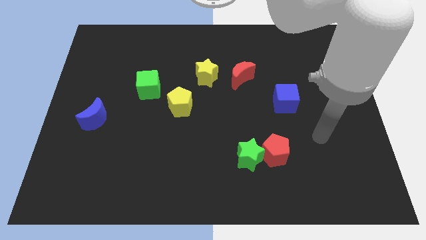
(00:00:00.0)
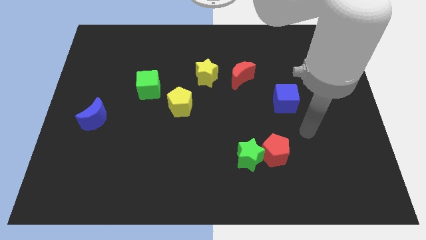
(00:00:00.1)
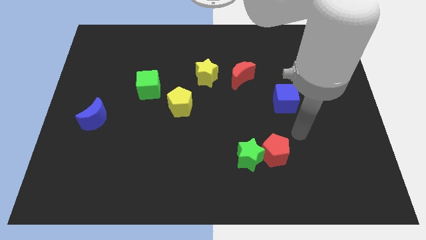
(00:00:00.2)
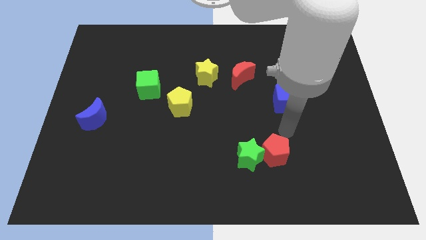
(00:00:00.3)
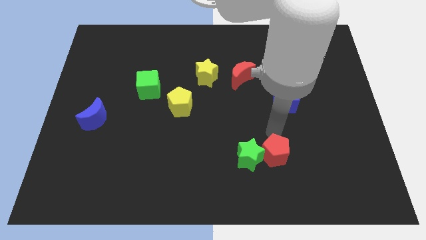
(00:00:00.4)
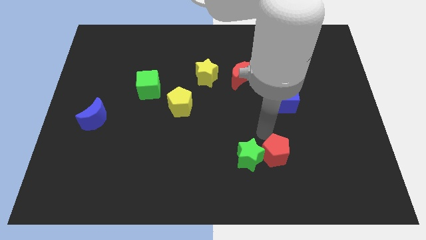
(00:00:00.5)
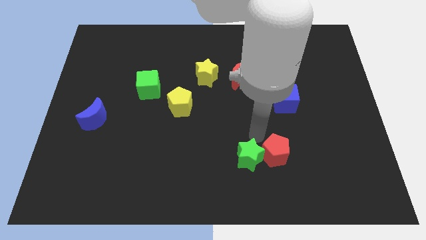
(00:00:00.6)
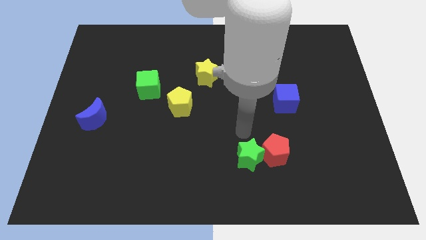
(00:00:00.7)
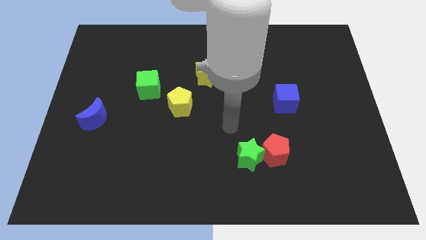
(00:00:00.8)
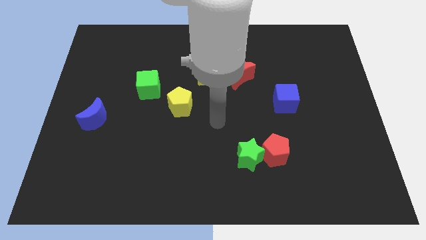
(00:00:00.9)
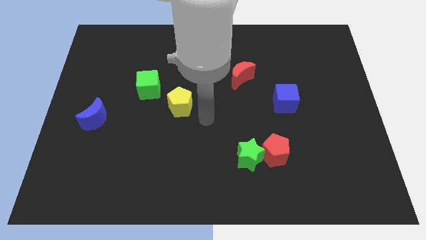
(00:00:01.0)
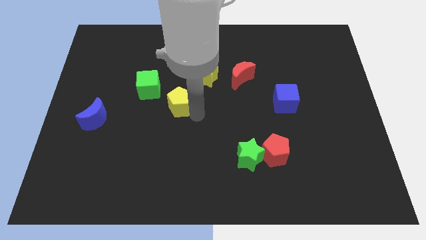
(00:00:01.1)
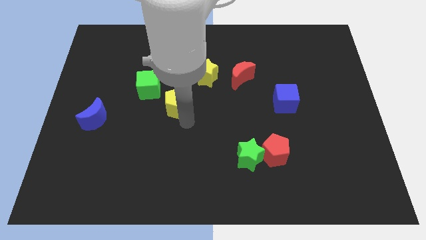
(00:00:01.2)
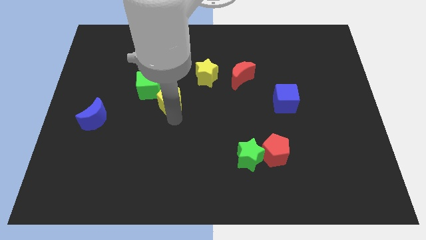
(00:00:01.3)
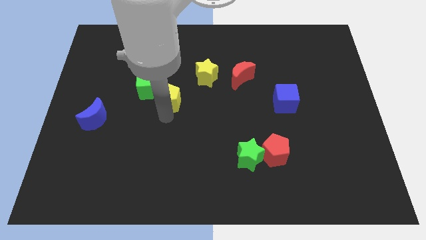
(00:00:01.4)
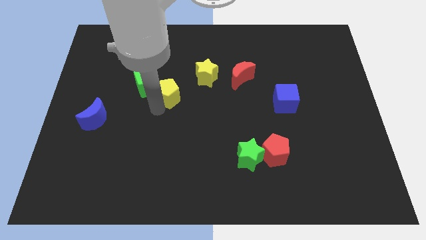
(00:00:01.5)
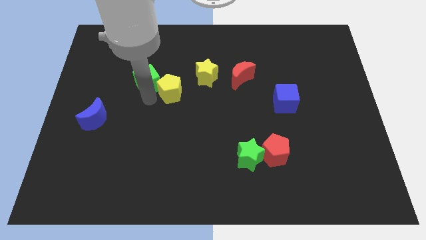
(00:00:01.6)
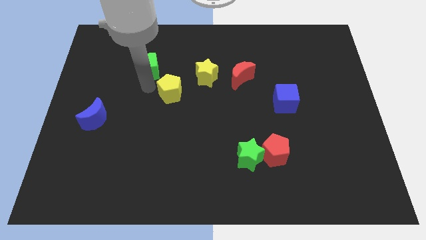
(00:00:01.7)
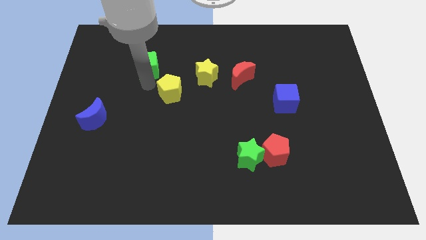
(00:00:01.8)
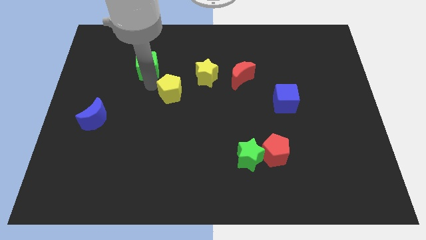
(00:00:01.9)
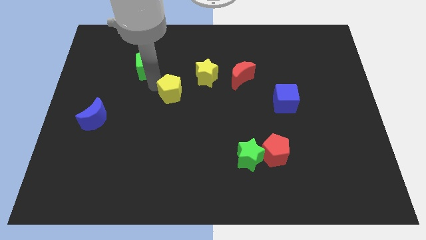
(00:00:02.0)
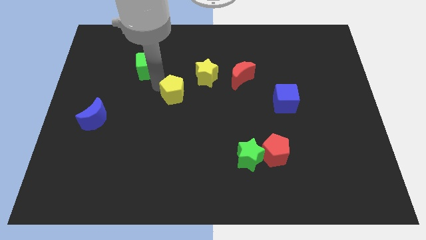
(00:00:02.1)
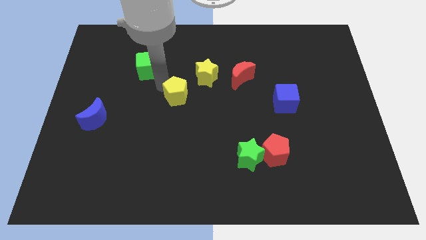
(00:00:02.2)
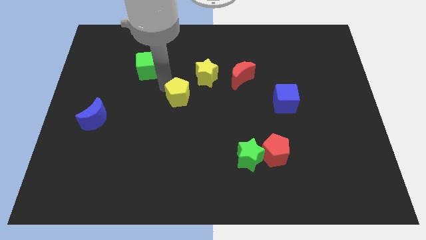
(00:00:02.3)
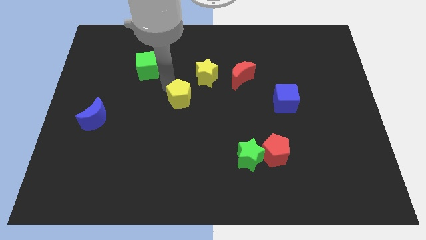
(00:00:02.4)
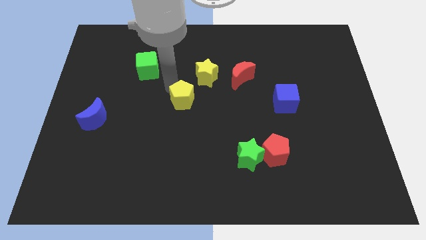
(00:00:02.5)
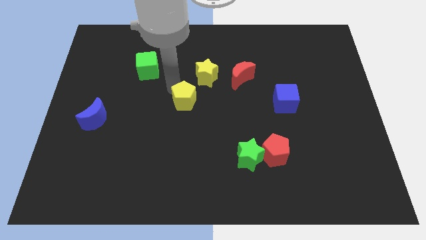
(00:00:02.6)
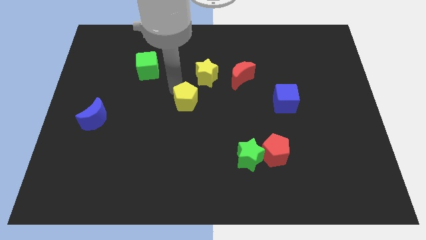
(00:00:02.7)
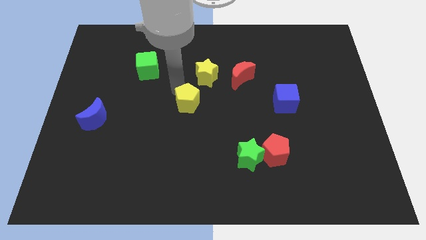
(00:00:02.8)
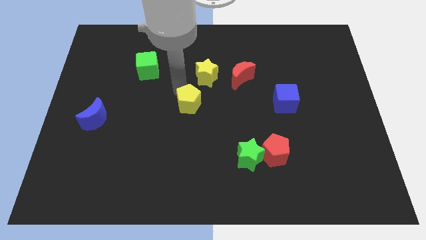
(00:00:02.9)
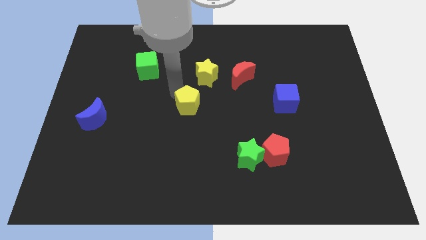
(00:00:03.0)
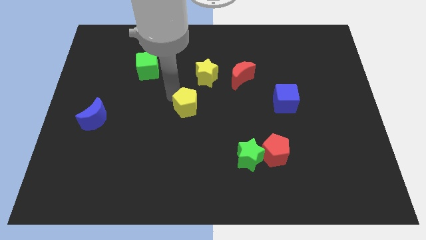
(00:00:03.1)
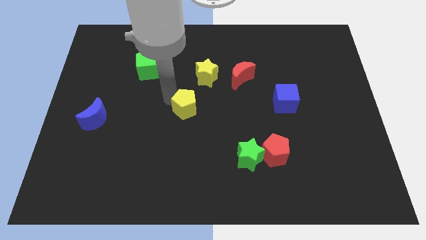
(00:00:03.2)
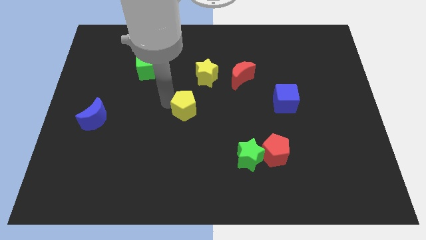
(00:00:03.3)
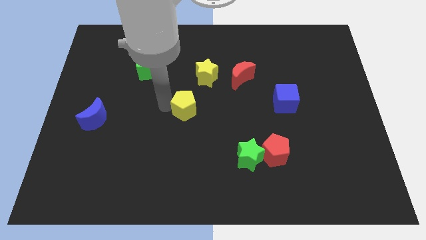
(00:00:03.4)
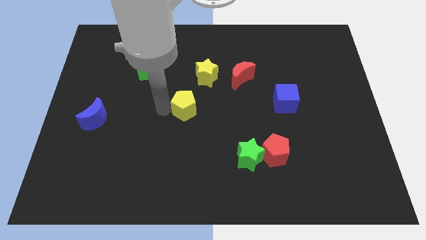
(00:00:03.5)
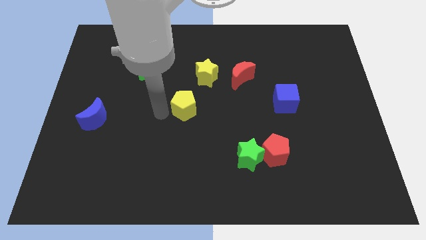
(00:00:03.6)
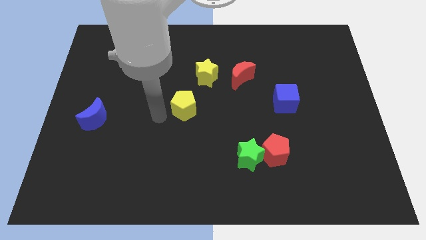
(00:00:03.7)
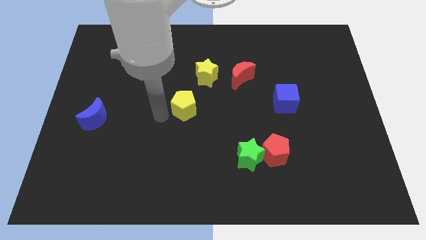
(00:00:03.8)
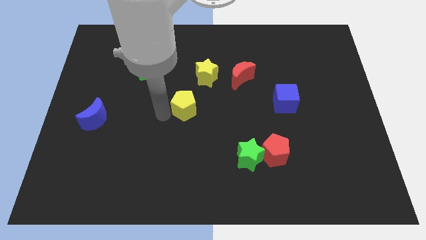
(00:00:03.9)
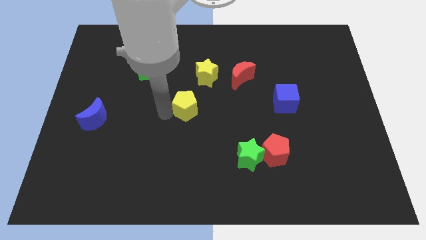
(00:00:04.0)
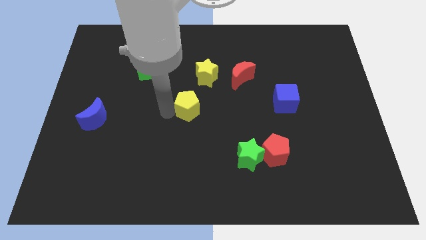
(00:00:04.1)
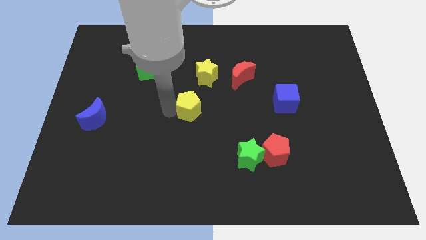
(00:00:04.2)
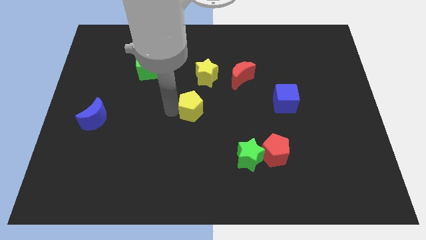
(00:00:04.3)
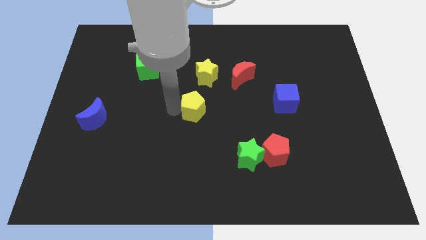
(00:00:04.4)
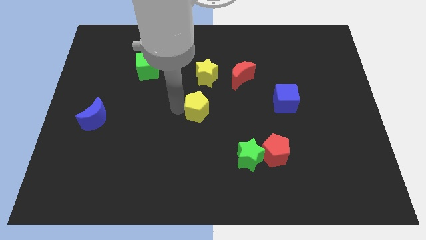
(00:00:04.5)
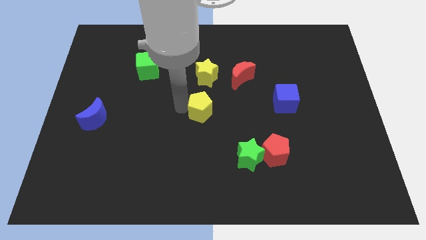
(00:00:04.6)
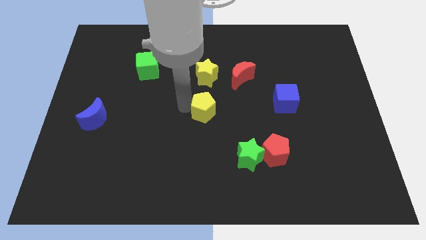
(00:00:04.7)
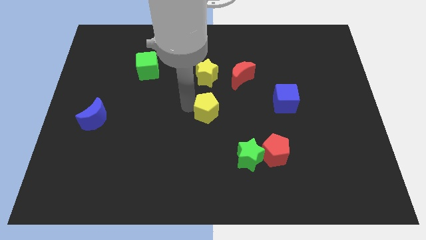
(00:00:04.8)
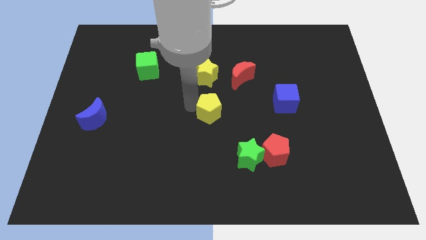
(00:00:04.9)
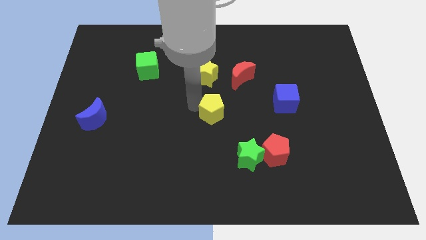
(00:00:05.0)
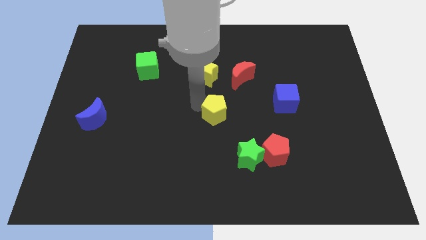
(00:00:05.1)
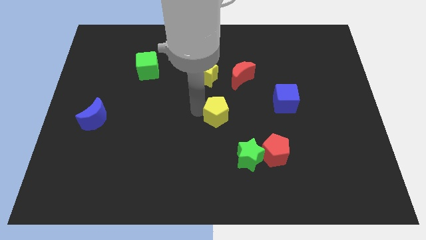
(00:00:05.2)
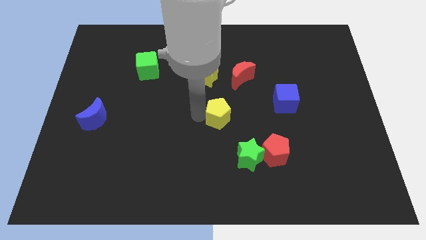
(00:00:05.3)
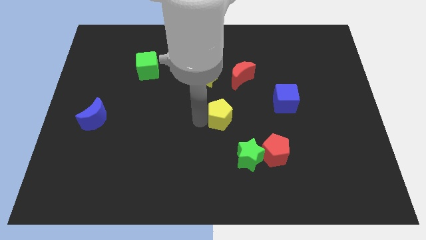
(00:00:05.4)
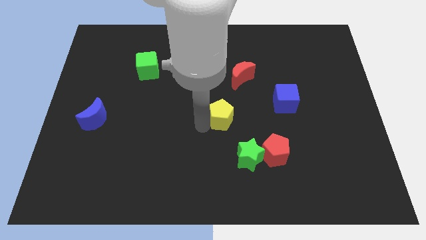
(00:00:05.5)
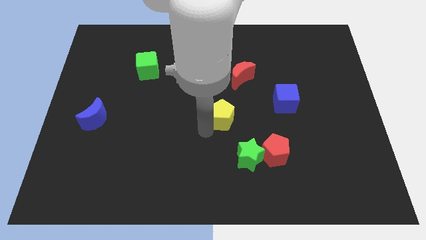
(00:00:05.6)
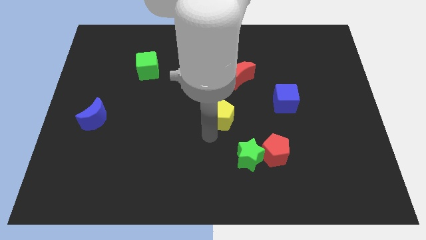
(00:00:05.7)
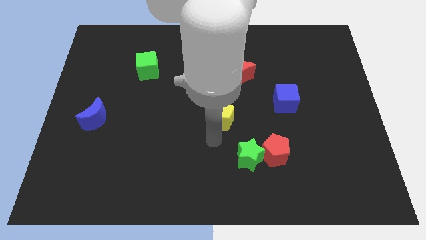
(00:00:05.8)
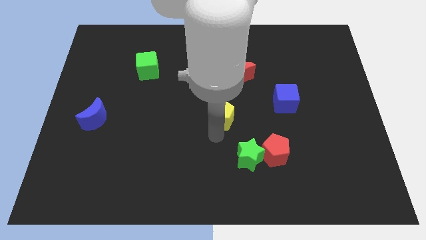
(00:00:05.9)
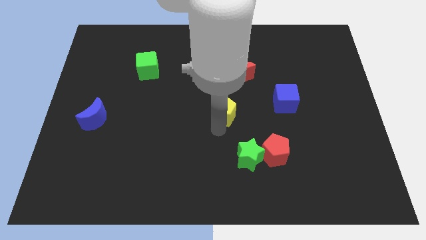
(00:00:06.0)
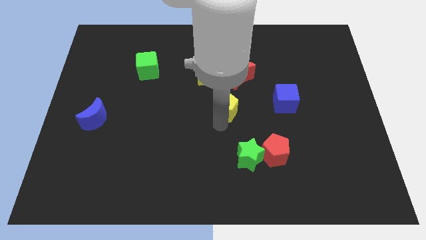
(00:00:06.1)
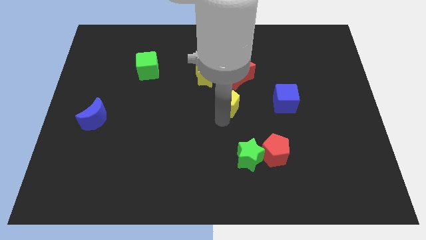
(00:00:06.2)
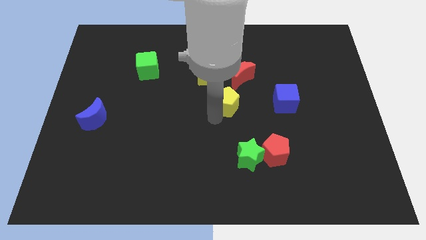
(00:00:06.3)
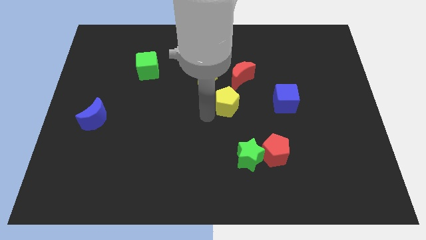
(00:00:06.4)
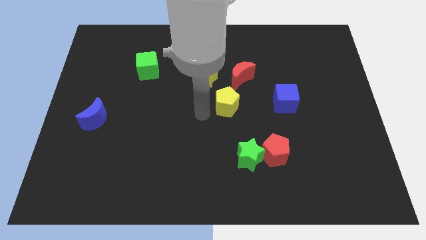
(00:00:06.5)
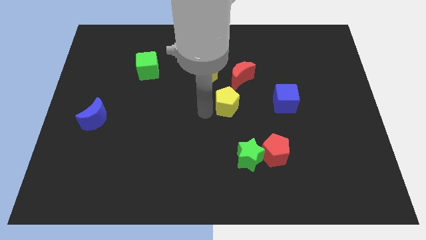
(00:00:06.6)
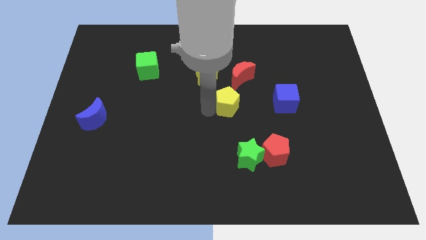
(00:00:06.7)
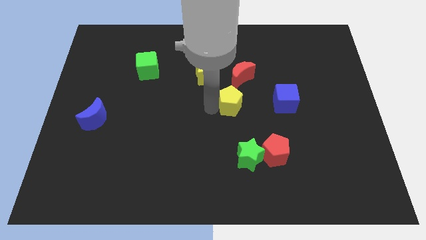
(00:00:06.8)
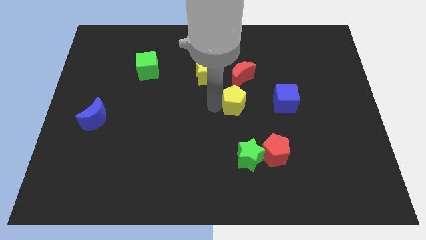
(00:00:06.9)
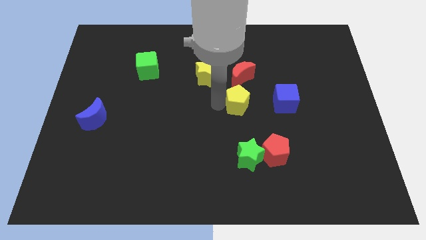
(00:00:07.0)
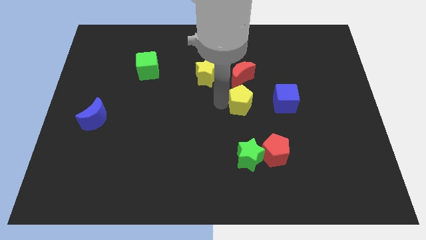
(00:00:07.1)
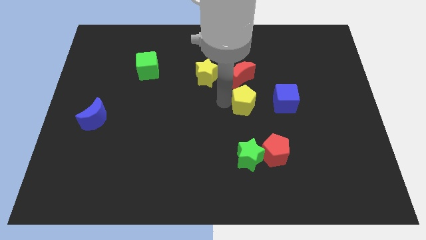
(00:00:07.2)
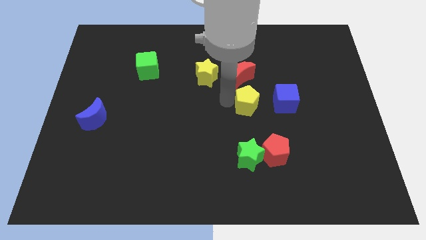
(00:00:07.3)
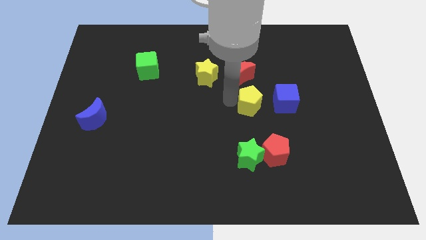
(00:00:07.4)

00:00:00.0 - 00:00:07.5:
put the yellow pentagon to the bottom right of the red moon
